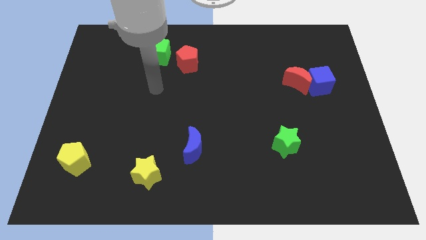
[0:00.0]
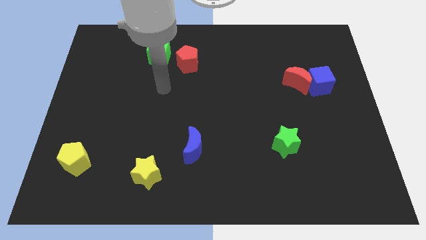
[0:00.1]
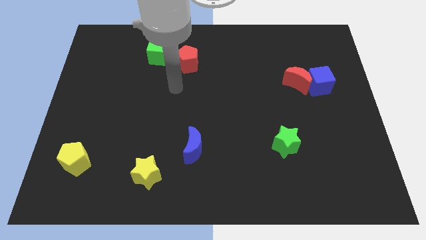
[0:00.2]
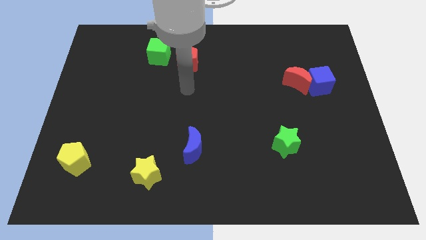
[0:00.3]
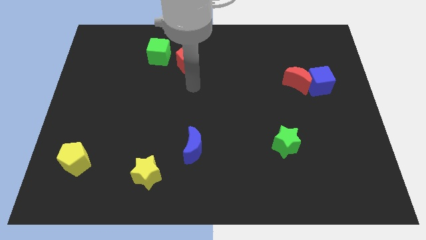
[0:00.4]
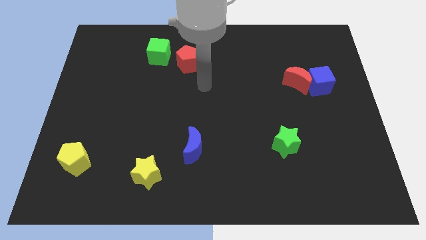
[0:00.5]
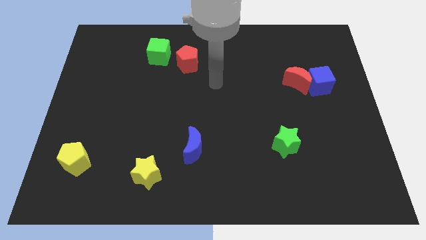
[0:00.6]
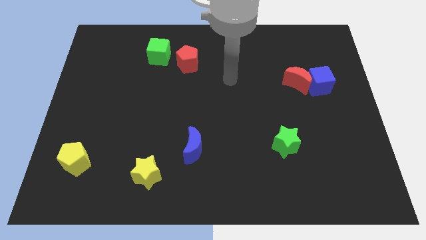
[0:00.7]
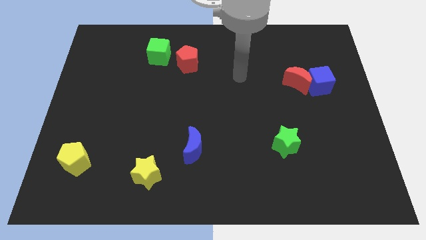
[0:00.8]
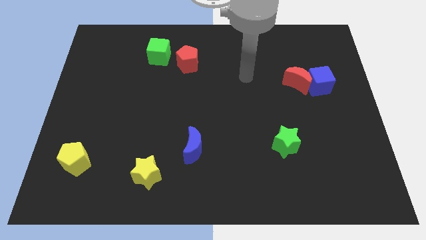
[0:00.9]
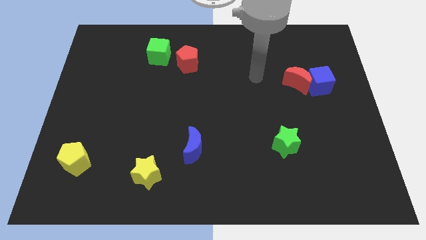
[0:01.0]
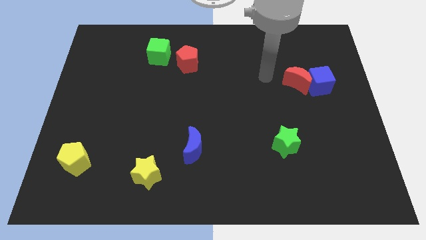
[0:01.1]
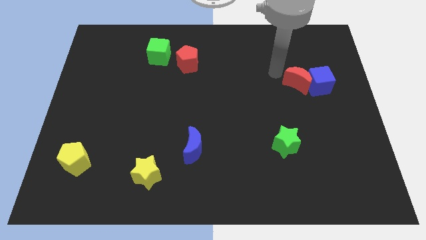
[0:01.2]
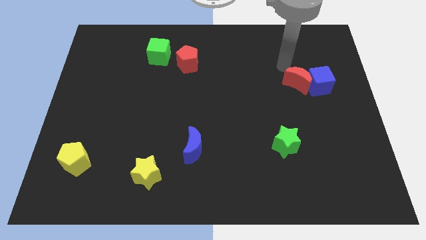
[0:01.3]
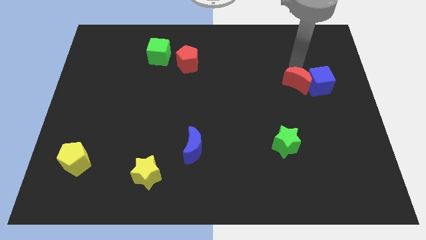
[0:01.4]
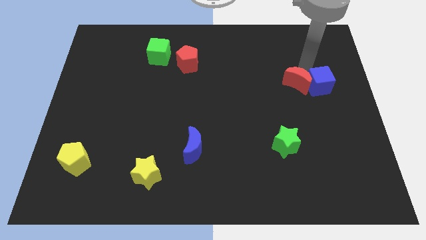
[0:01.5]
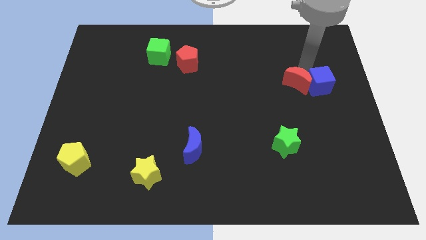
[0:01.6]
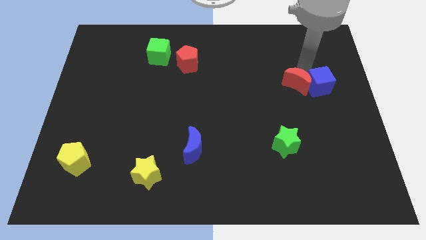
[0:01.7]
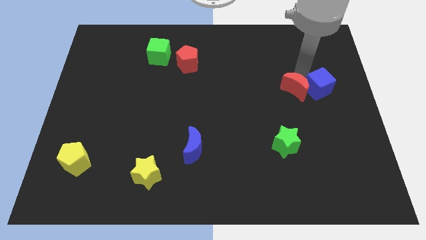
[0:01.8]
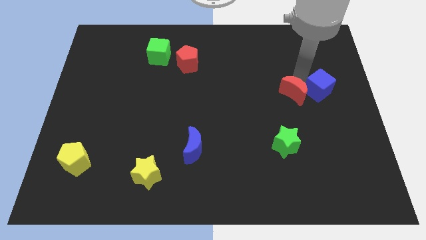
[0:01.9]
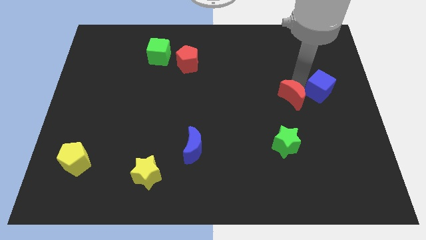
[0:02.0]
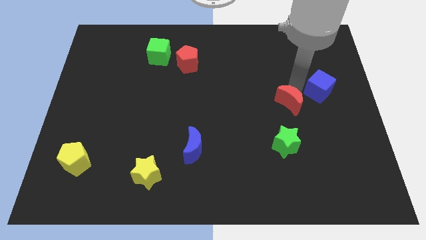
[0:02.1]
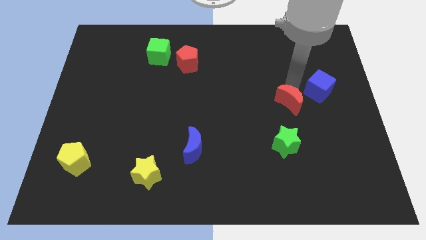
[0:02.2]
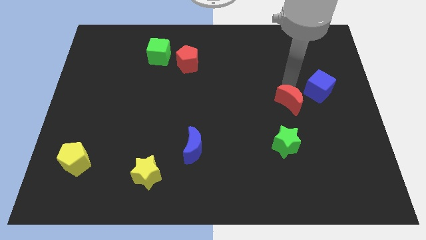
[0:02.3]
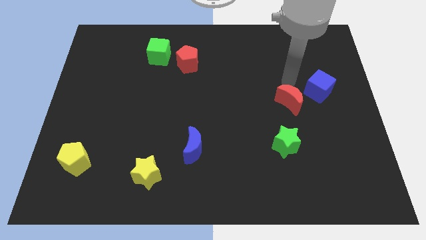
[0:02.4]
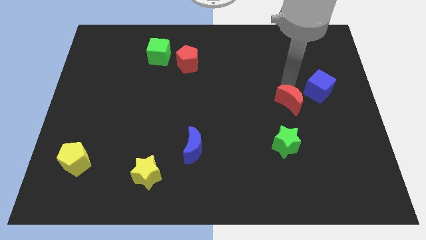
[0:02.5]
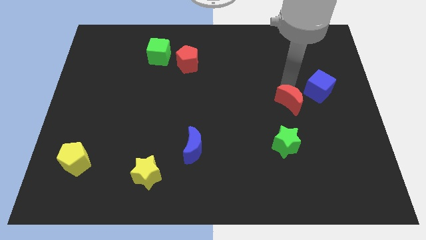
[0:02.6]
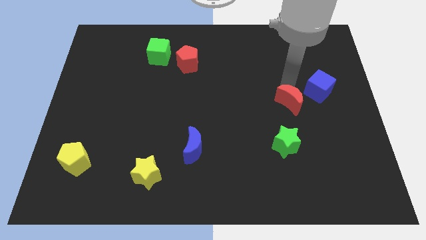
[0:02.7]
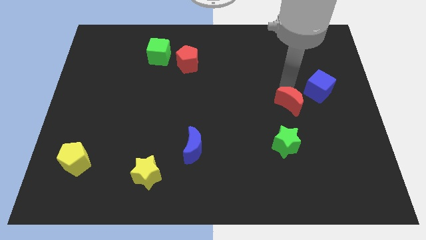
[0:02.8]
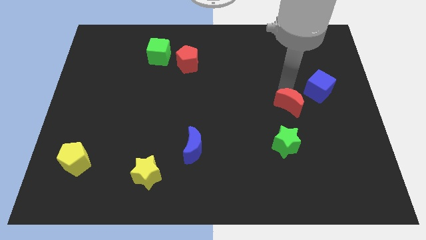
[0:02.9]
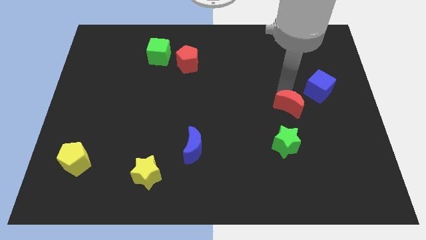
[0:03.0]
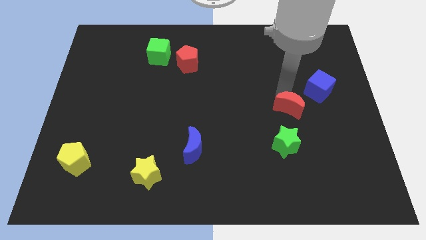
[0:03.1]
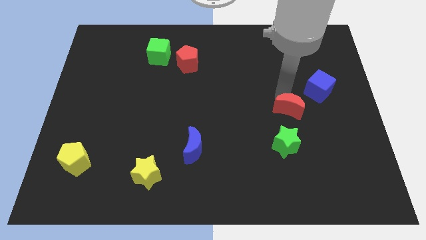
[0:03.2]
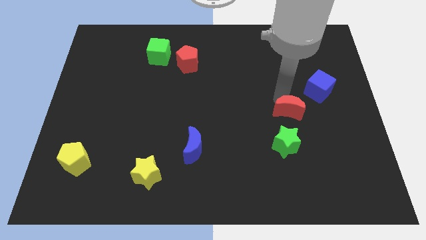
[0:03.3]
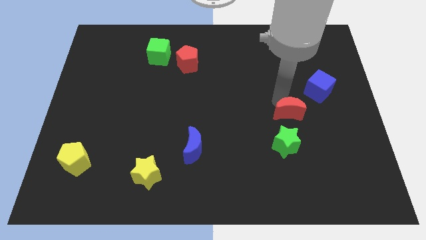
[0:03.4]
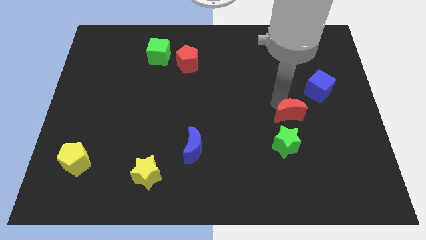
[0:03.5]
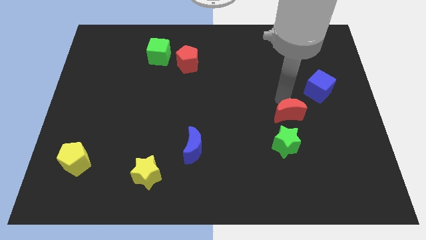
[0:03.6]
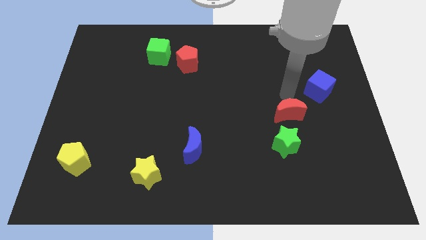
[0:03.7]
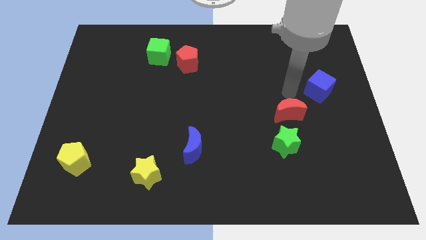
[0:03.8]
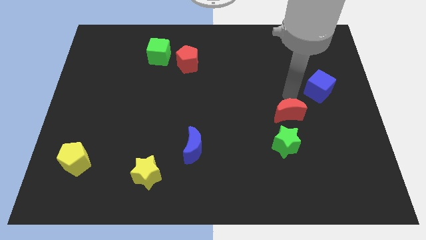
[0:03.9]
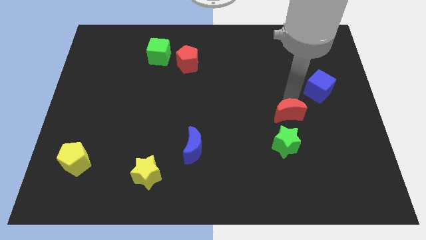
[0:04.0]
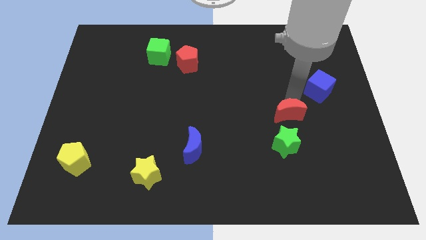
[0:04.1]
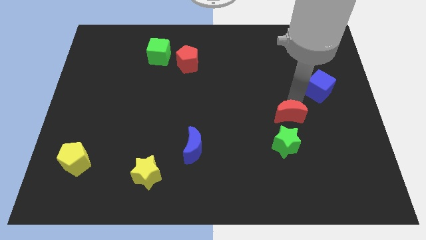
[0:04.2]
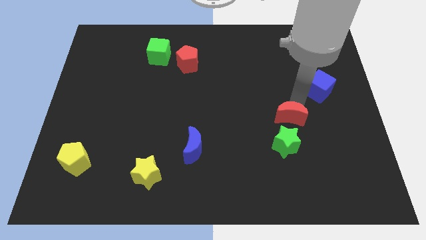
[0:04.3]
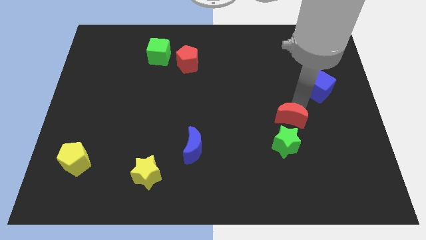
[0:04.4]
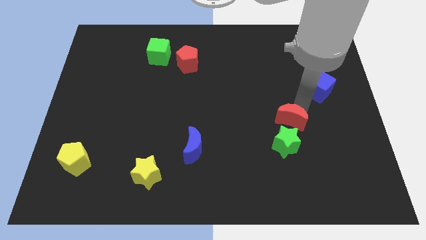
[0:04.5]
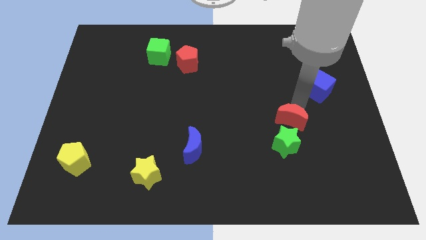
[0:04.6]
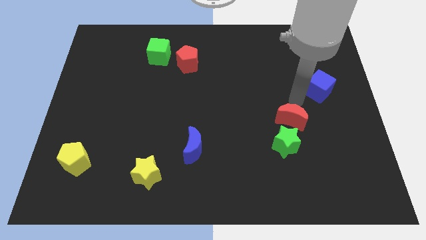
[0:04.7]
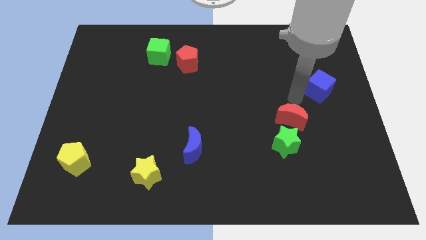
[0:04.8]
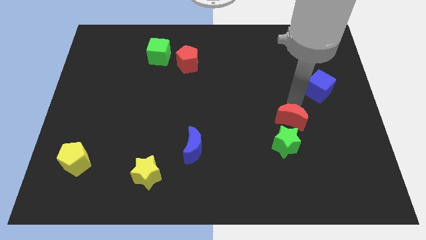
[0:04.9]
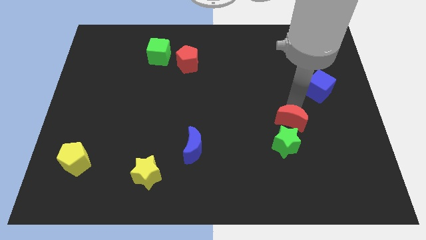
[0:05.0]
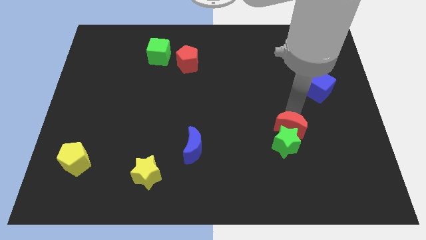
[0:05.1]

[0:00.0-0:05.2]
put the red moon next to the green star

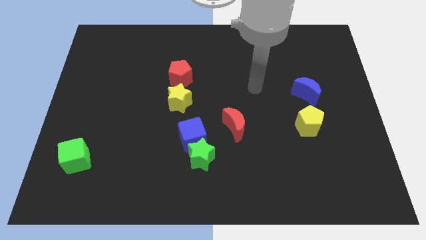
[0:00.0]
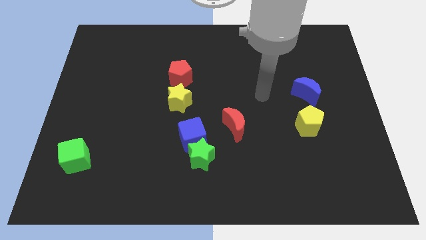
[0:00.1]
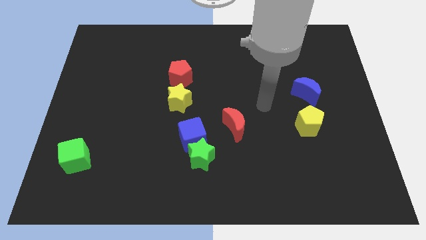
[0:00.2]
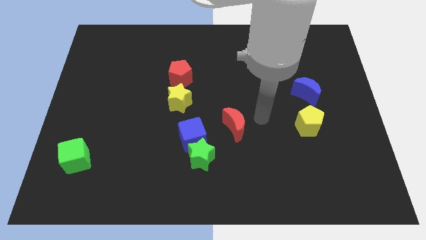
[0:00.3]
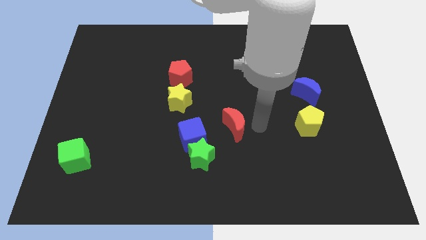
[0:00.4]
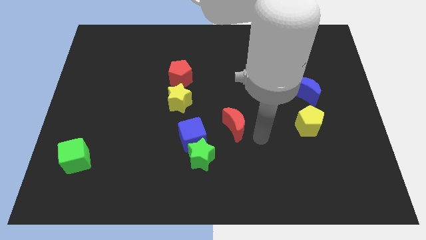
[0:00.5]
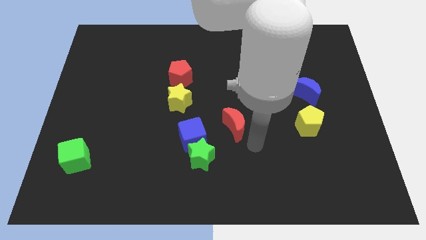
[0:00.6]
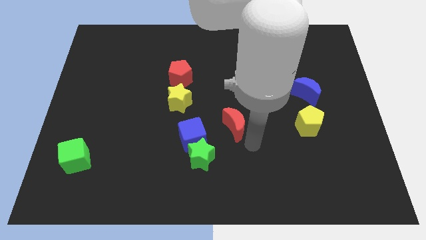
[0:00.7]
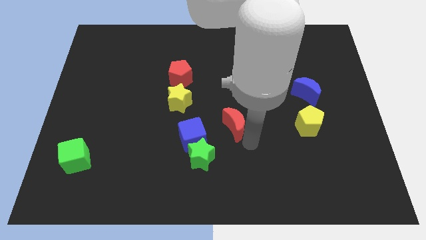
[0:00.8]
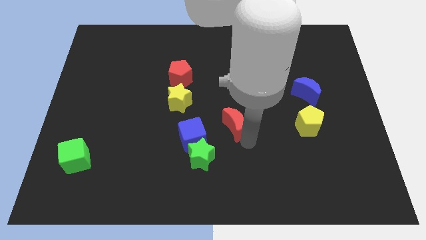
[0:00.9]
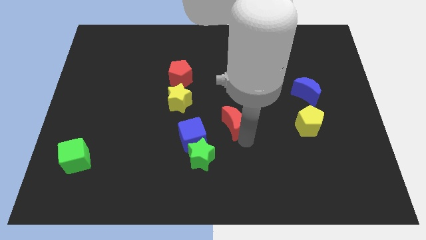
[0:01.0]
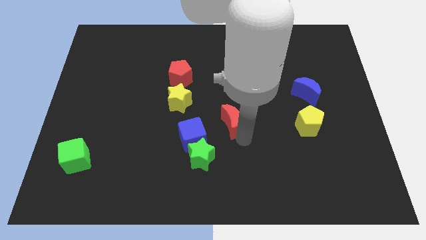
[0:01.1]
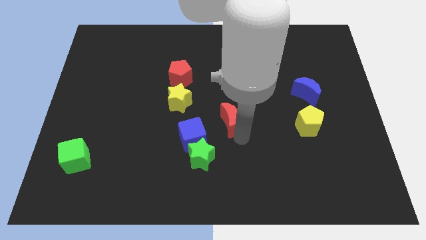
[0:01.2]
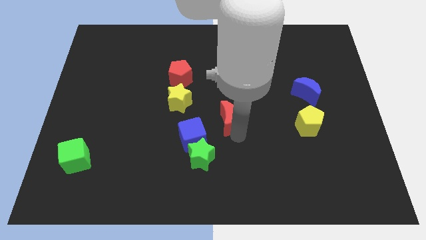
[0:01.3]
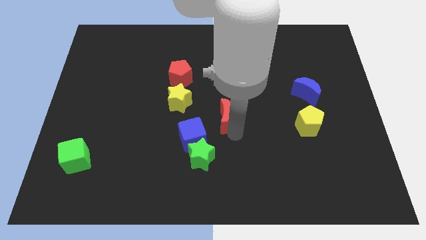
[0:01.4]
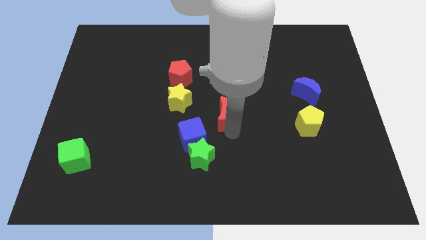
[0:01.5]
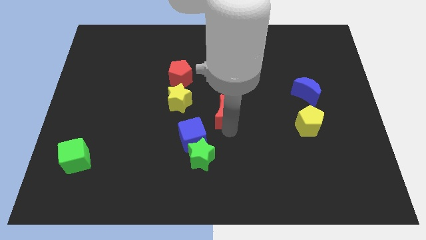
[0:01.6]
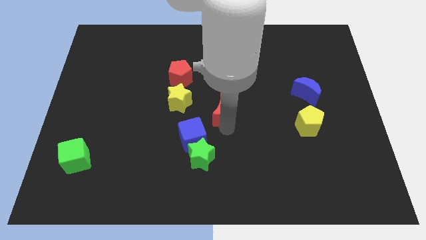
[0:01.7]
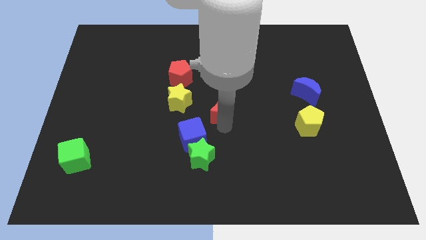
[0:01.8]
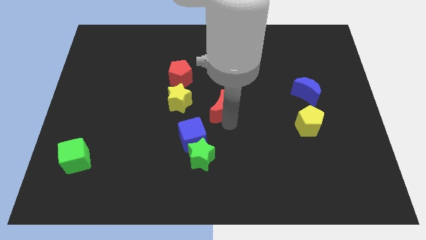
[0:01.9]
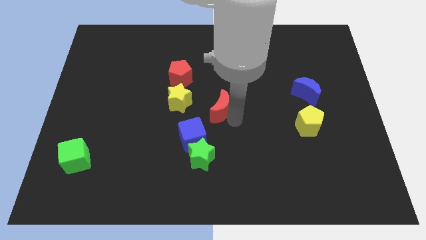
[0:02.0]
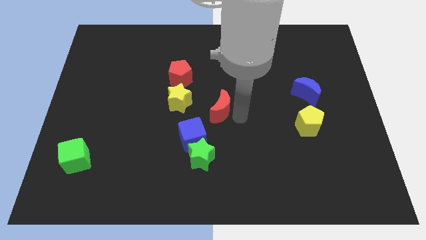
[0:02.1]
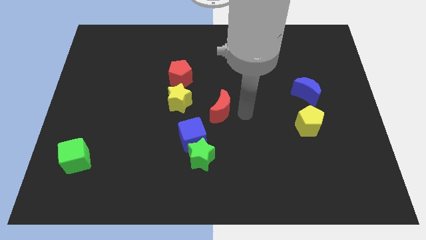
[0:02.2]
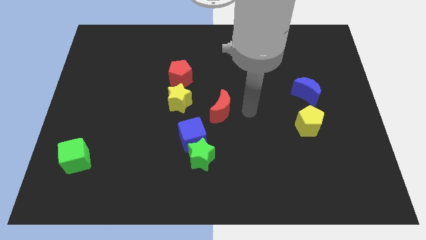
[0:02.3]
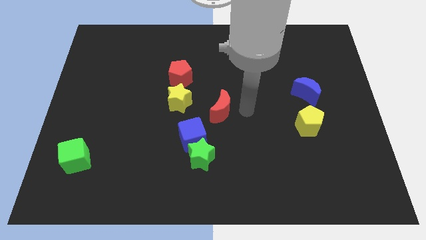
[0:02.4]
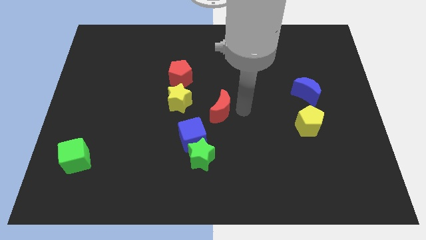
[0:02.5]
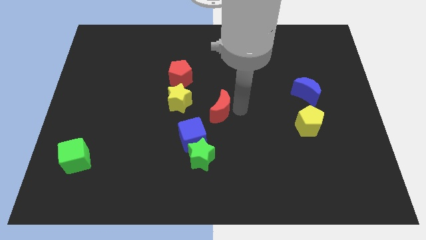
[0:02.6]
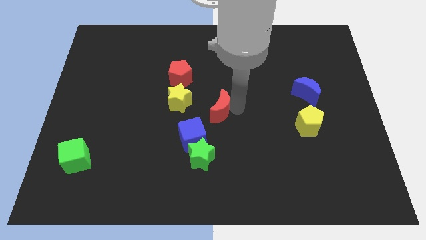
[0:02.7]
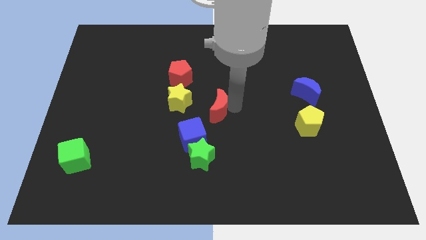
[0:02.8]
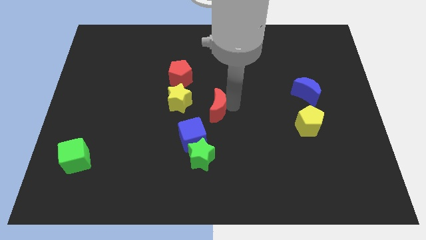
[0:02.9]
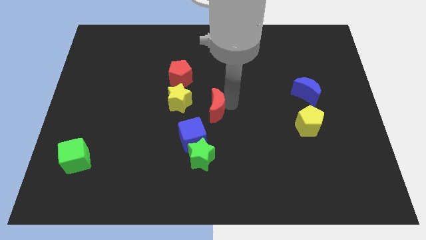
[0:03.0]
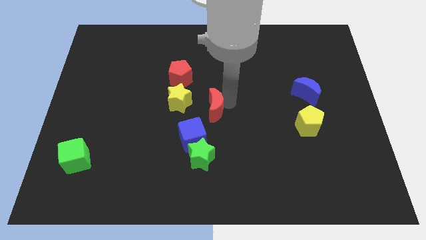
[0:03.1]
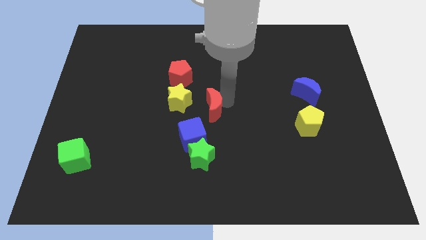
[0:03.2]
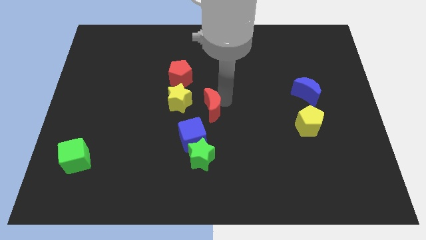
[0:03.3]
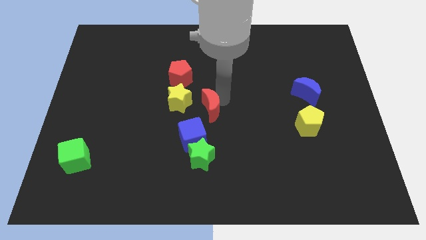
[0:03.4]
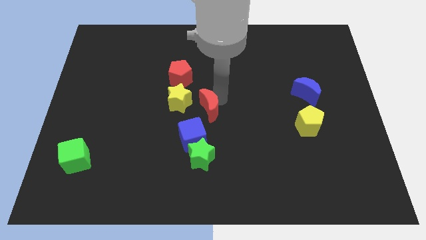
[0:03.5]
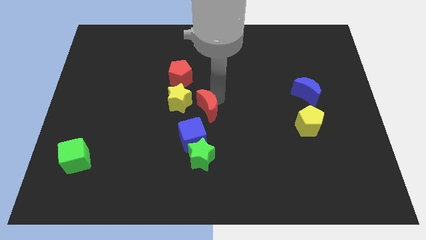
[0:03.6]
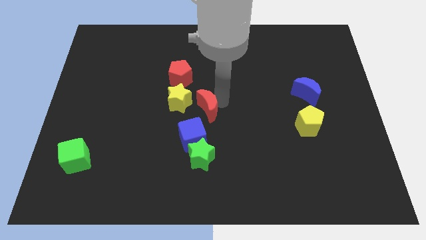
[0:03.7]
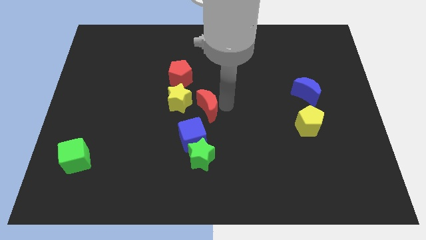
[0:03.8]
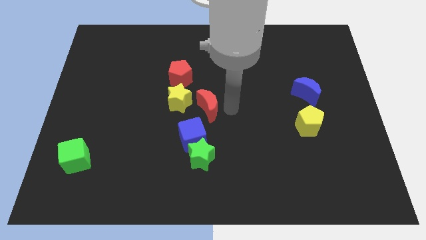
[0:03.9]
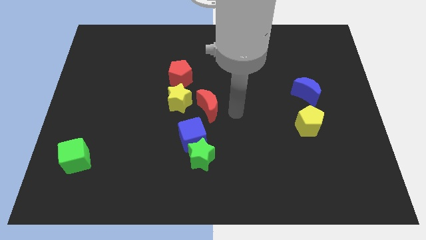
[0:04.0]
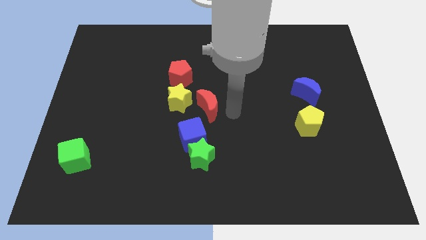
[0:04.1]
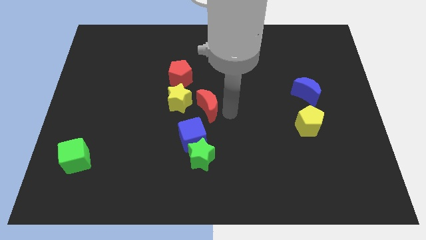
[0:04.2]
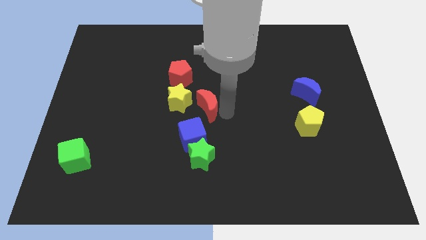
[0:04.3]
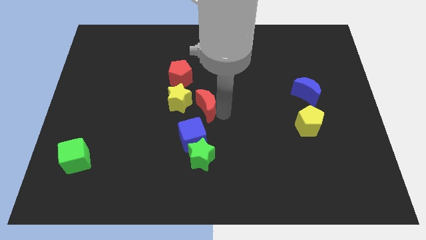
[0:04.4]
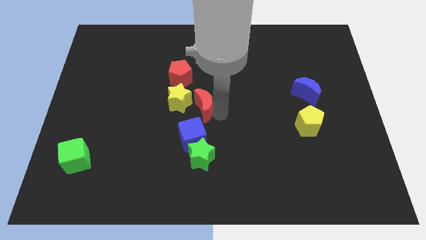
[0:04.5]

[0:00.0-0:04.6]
put the red moon to the yellow star
